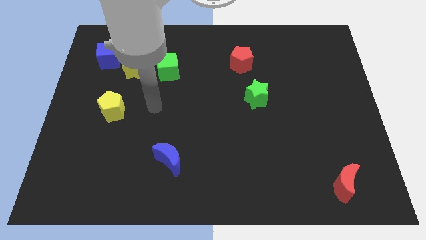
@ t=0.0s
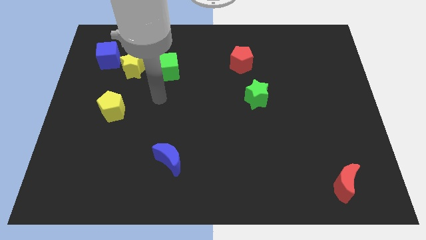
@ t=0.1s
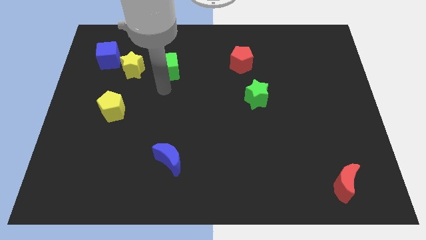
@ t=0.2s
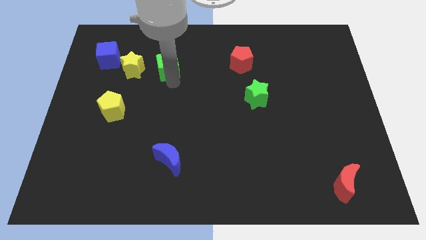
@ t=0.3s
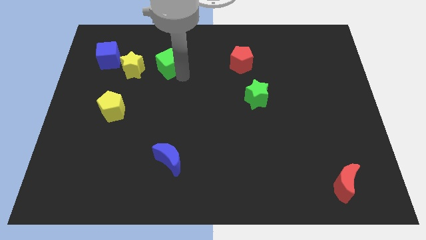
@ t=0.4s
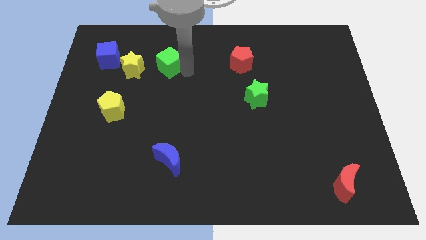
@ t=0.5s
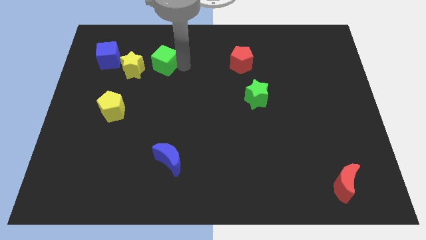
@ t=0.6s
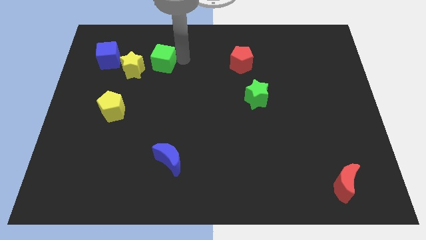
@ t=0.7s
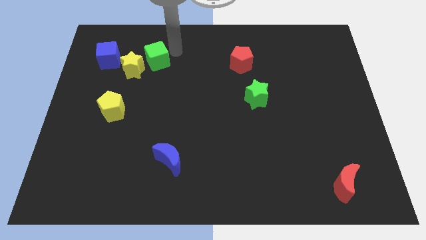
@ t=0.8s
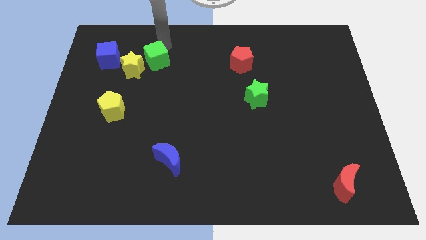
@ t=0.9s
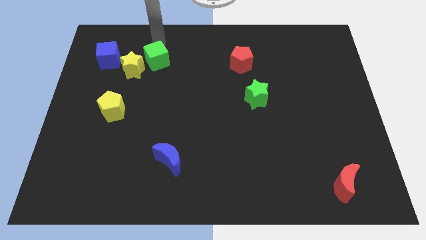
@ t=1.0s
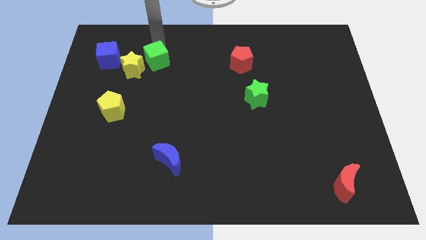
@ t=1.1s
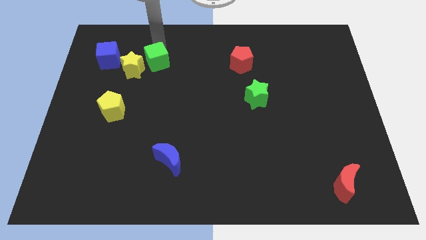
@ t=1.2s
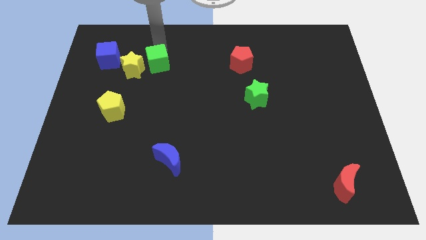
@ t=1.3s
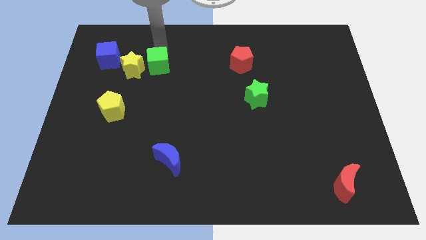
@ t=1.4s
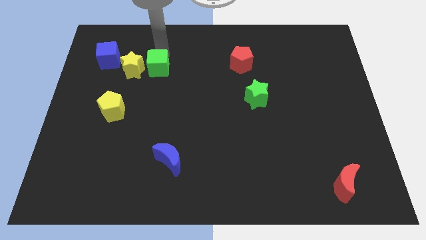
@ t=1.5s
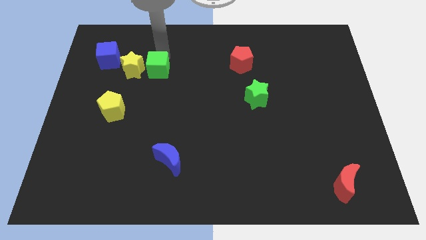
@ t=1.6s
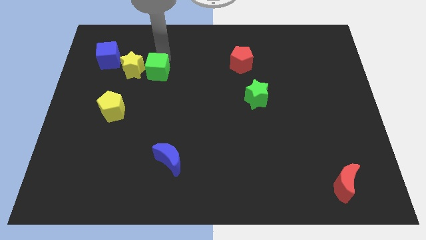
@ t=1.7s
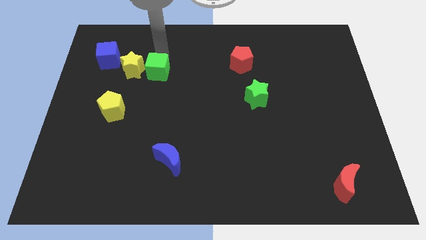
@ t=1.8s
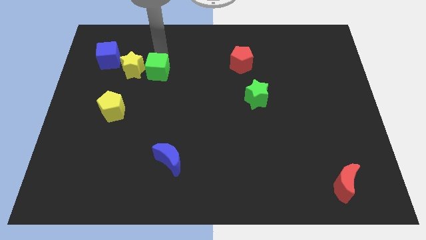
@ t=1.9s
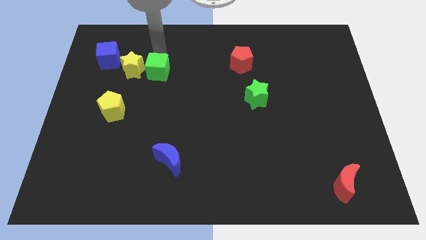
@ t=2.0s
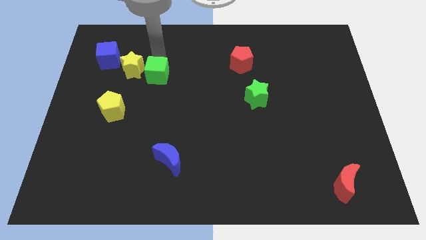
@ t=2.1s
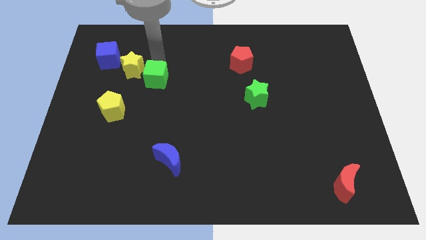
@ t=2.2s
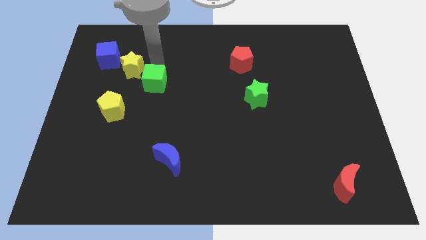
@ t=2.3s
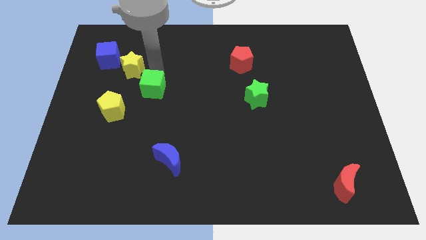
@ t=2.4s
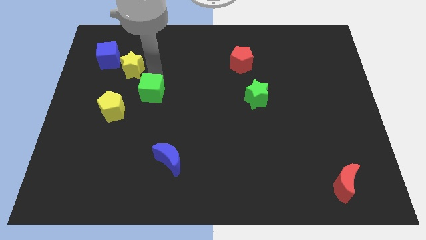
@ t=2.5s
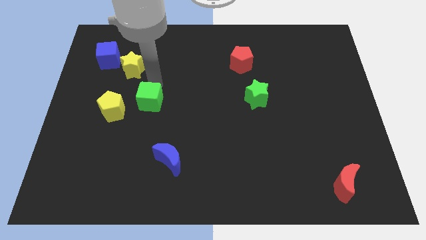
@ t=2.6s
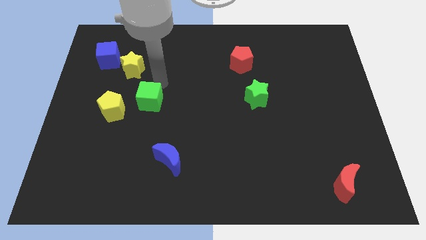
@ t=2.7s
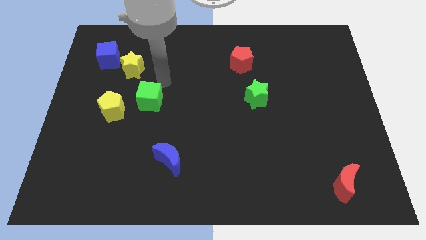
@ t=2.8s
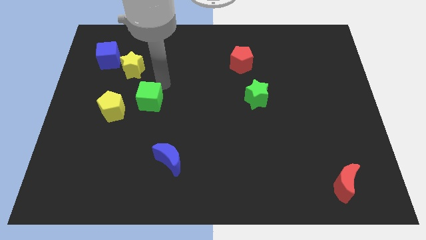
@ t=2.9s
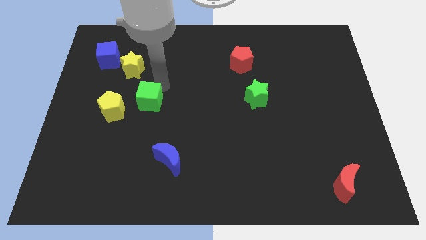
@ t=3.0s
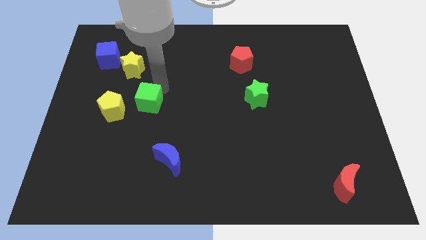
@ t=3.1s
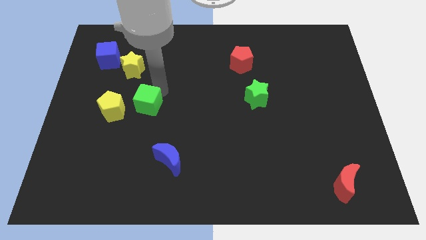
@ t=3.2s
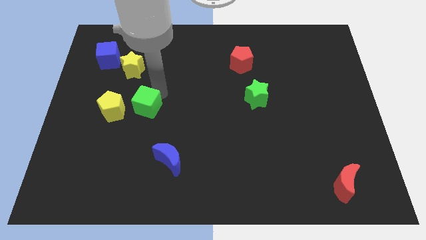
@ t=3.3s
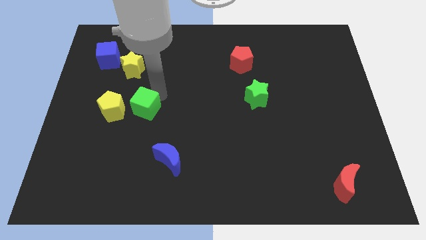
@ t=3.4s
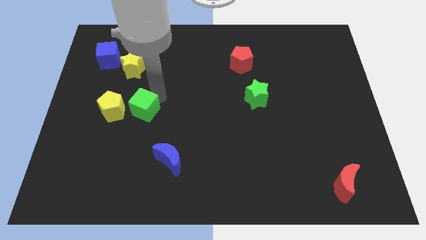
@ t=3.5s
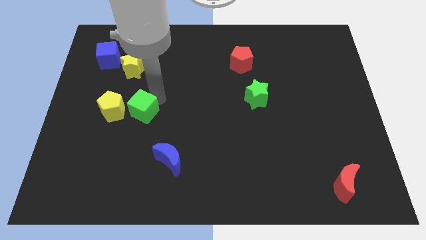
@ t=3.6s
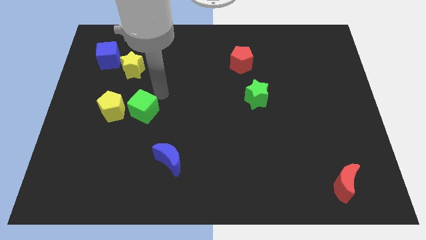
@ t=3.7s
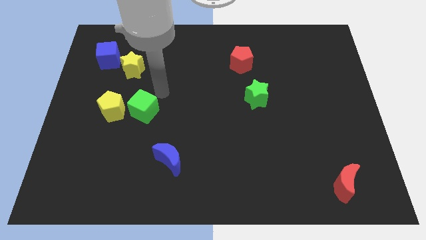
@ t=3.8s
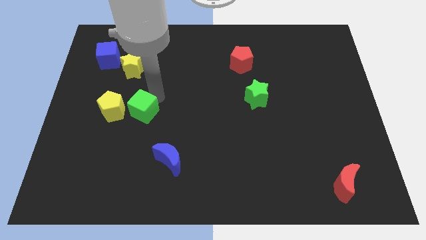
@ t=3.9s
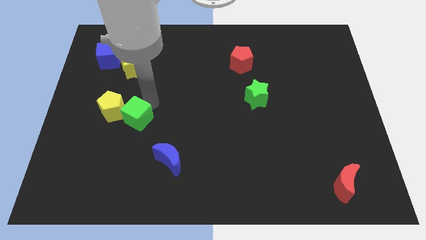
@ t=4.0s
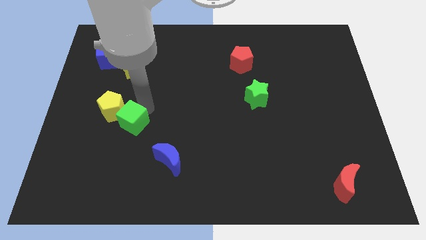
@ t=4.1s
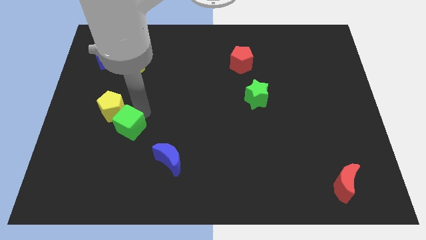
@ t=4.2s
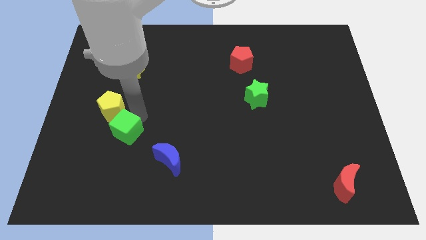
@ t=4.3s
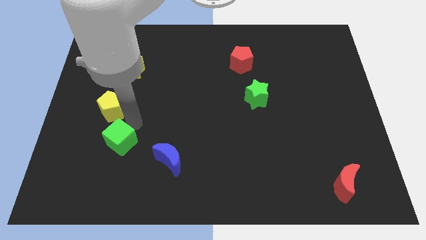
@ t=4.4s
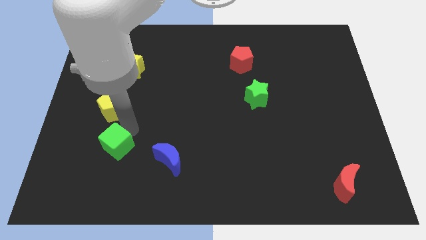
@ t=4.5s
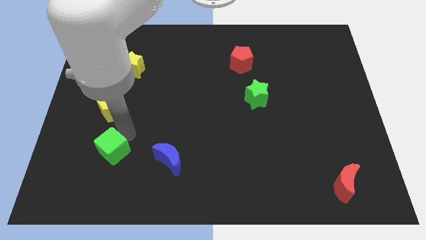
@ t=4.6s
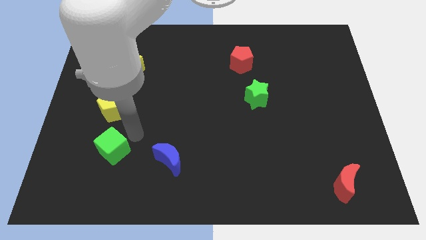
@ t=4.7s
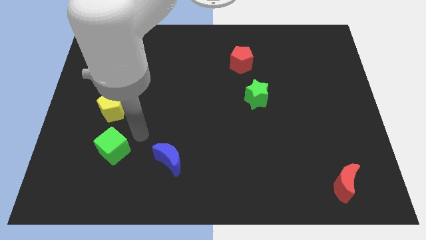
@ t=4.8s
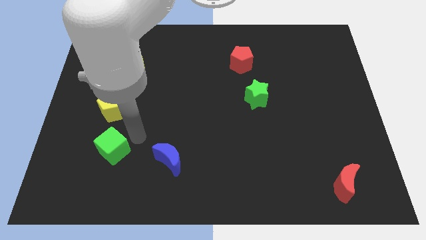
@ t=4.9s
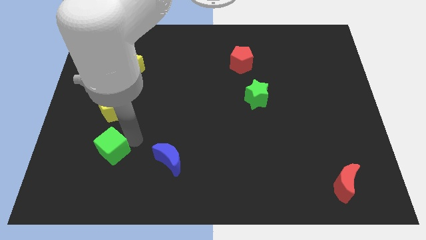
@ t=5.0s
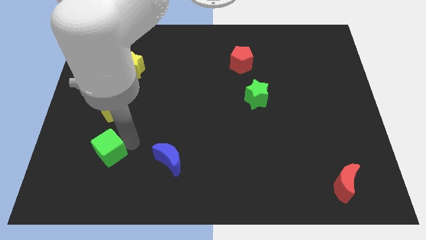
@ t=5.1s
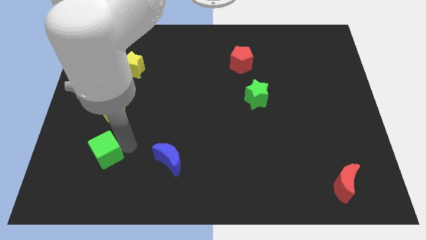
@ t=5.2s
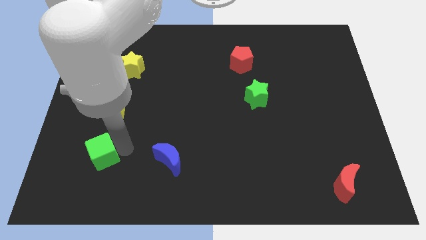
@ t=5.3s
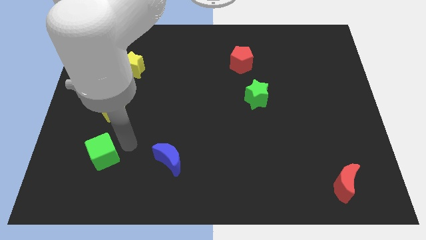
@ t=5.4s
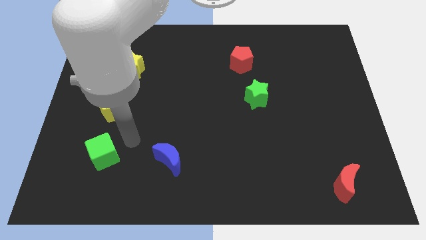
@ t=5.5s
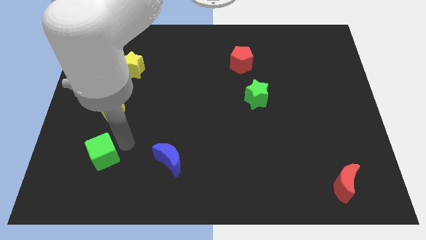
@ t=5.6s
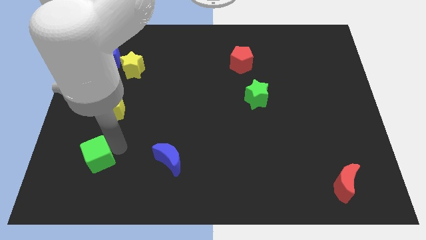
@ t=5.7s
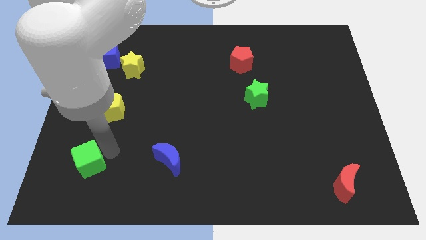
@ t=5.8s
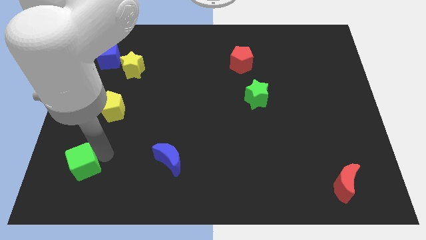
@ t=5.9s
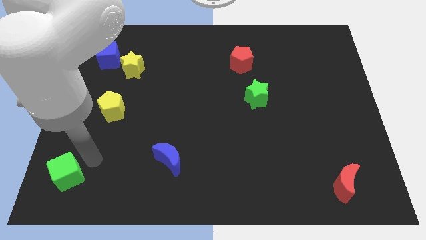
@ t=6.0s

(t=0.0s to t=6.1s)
move the green cube to the bottom left
